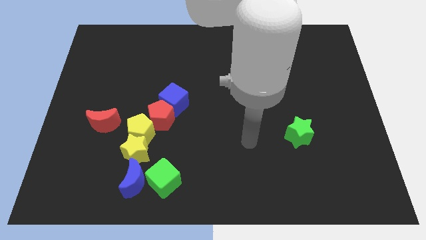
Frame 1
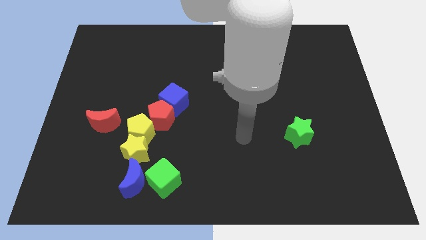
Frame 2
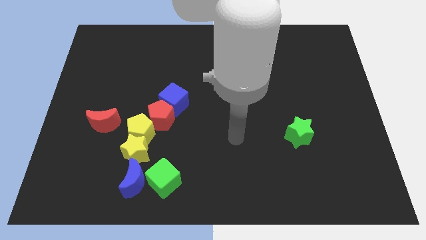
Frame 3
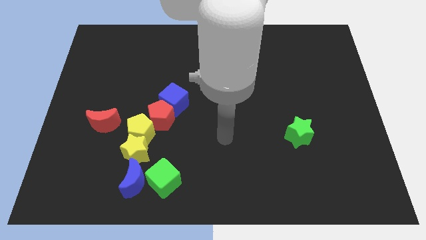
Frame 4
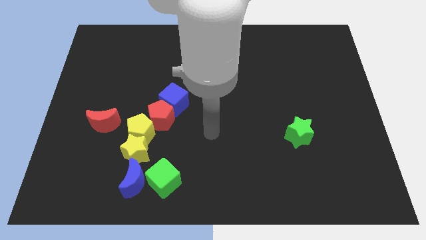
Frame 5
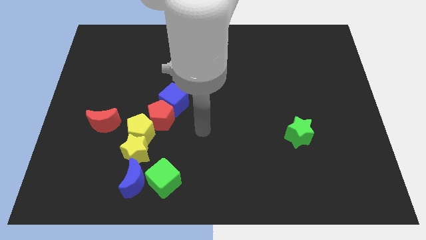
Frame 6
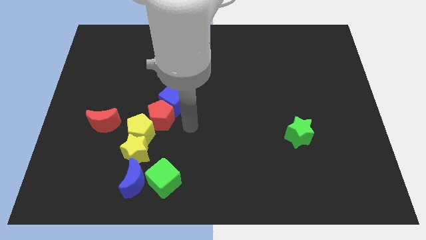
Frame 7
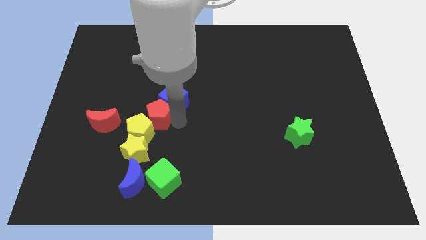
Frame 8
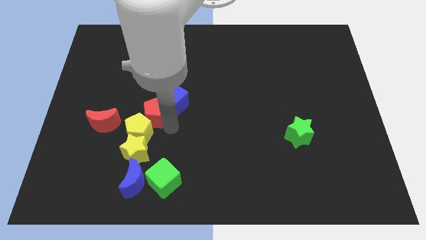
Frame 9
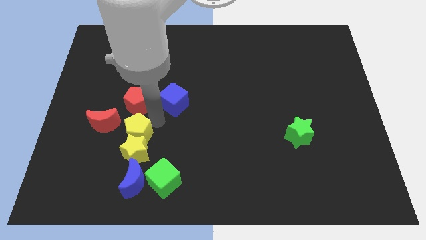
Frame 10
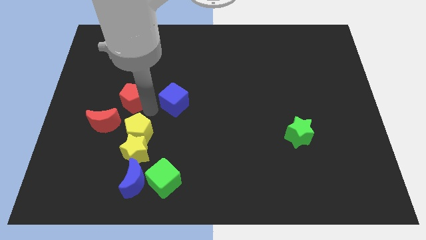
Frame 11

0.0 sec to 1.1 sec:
separate the blue cube from the red pentagon

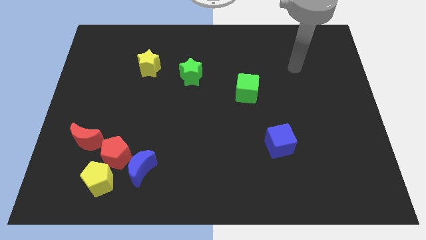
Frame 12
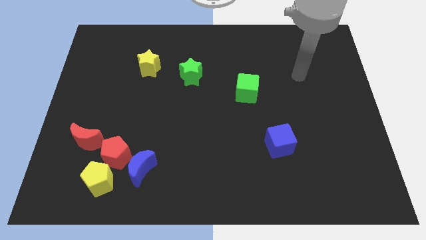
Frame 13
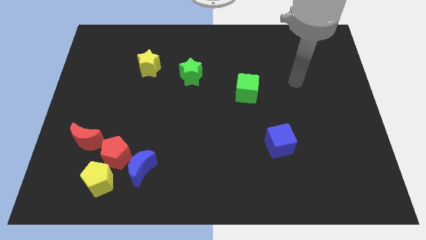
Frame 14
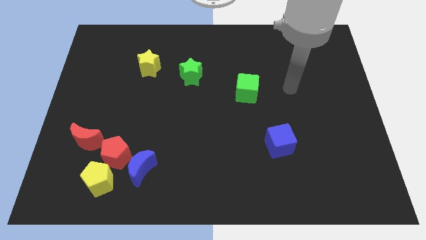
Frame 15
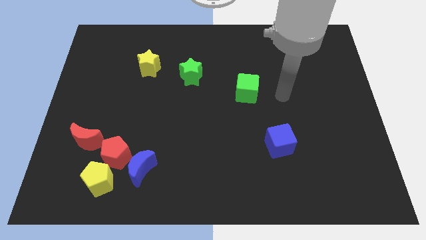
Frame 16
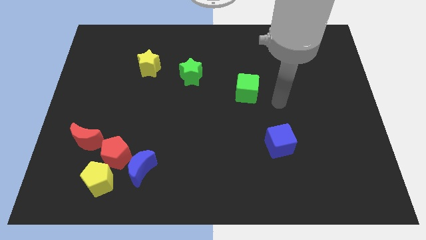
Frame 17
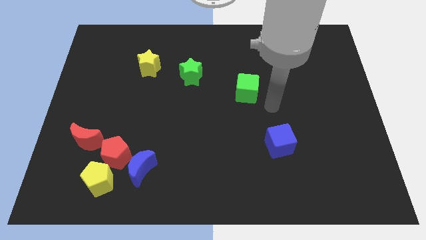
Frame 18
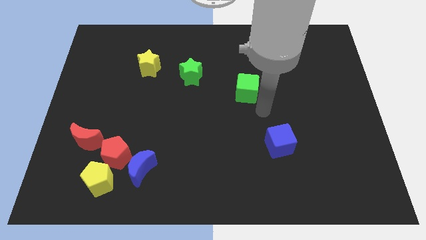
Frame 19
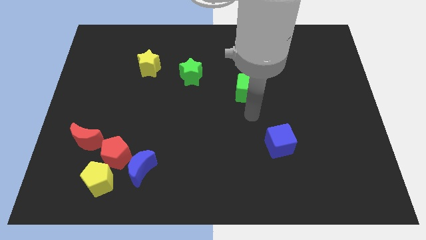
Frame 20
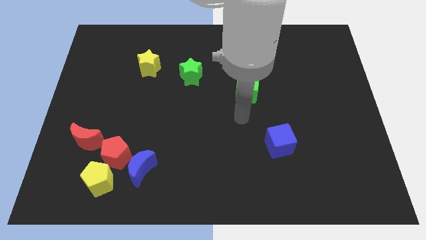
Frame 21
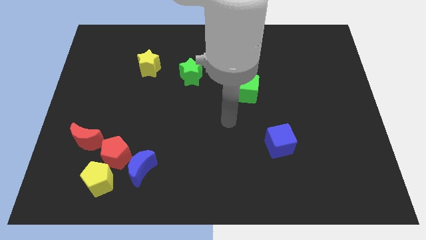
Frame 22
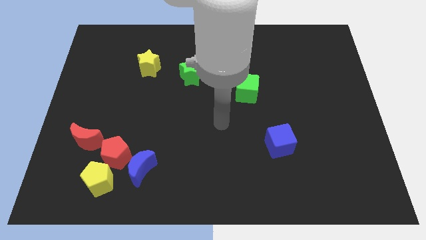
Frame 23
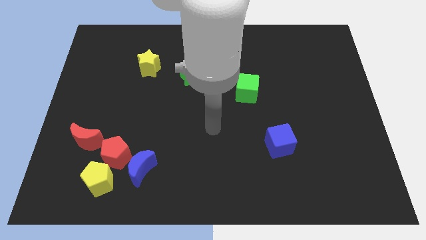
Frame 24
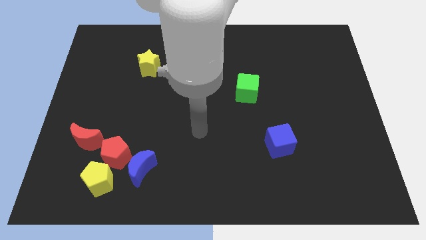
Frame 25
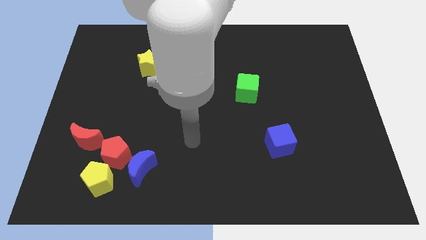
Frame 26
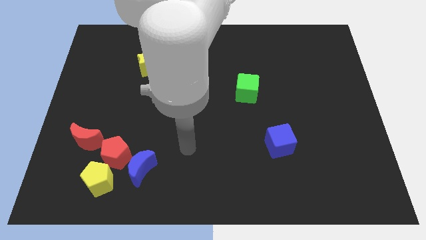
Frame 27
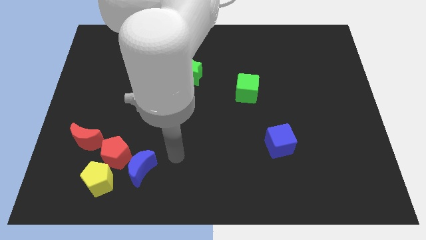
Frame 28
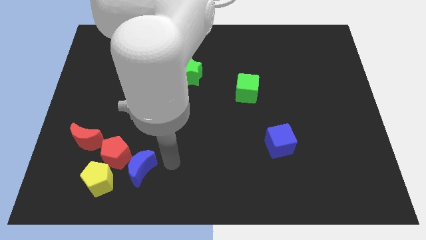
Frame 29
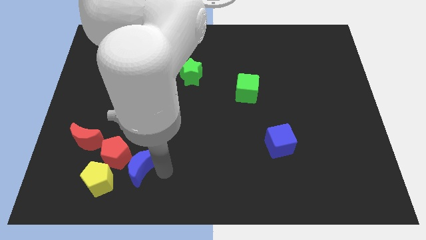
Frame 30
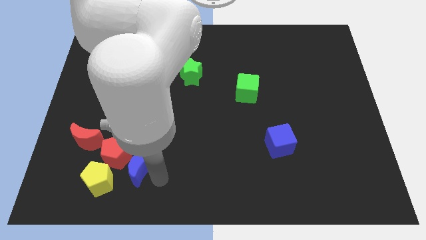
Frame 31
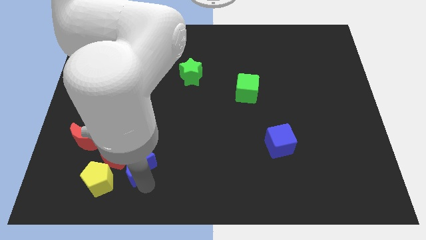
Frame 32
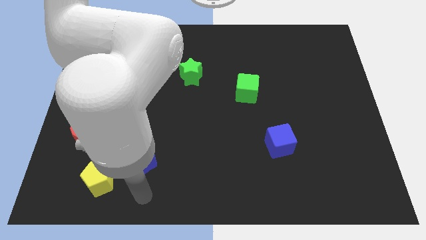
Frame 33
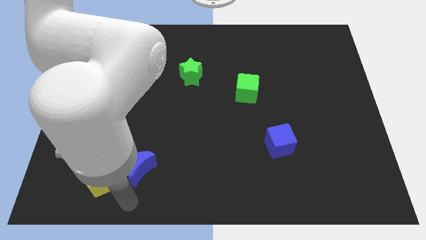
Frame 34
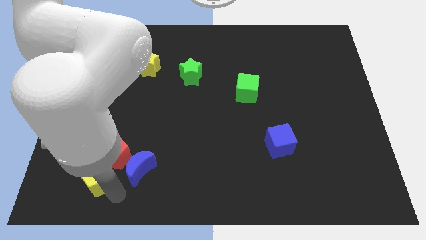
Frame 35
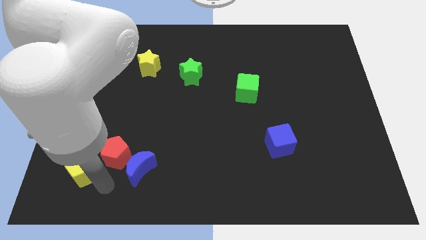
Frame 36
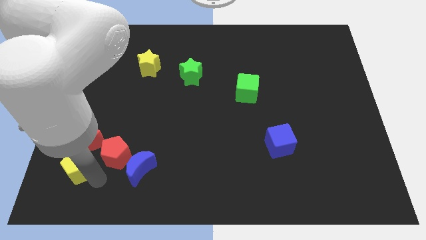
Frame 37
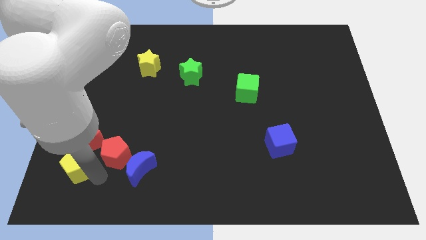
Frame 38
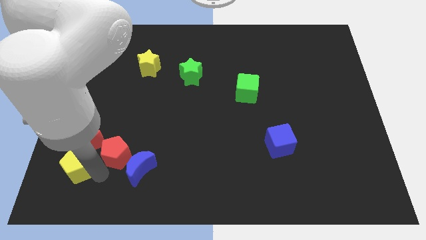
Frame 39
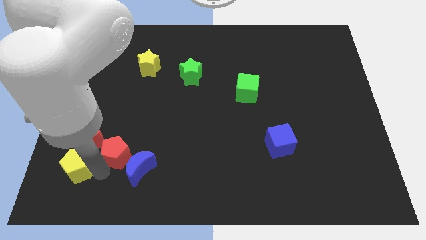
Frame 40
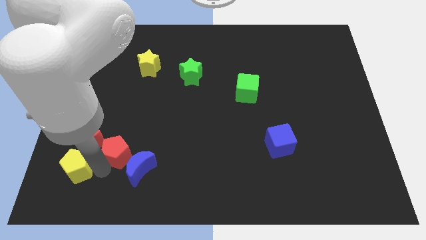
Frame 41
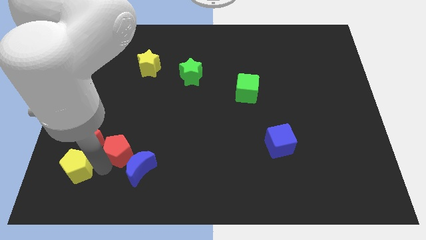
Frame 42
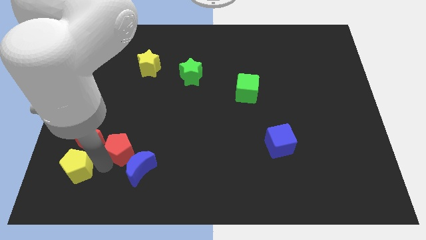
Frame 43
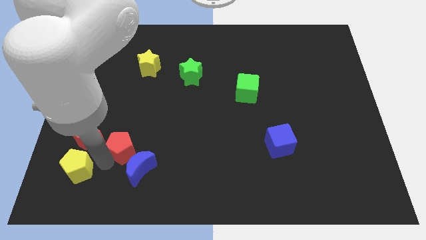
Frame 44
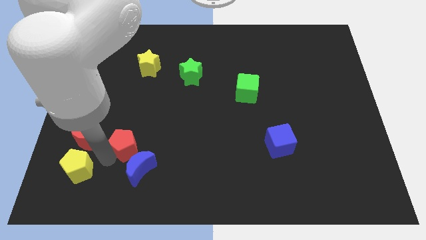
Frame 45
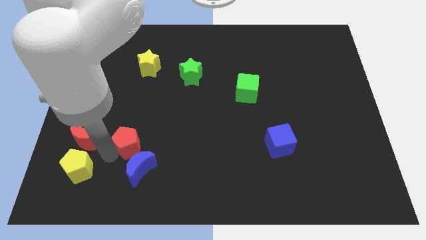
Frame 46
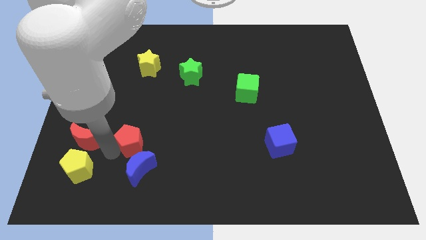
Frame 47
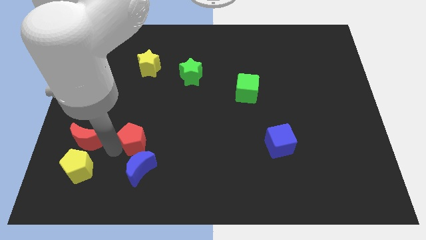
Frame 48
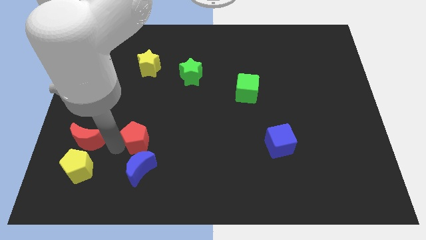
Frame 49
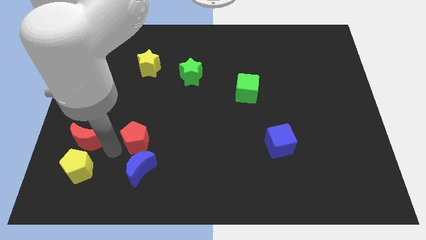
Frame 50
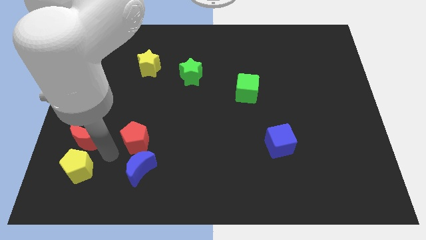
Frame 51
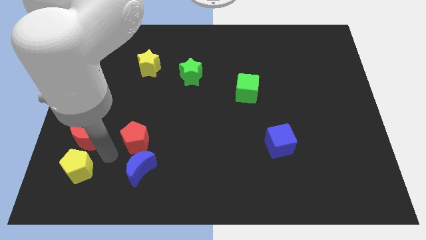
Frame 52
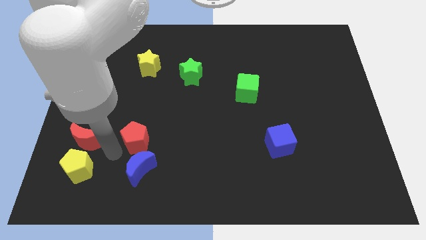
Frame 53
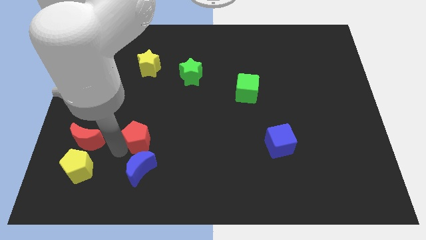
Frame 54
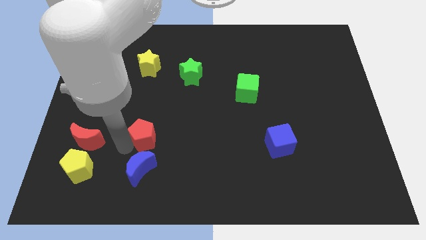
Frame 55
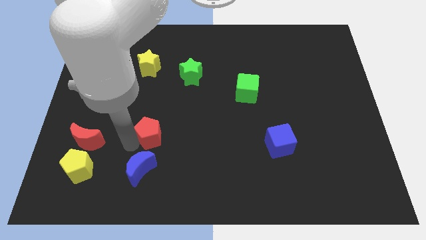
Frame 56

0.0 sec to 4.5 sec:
separate the red pentagon from the group

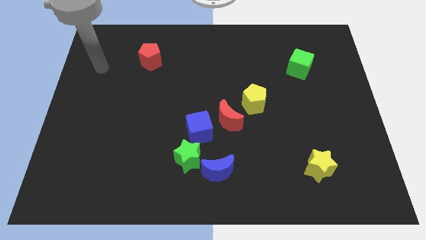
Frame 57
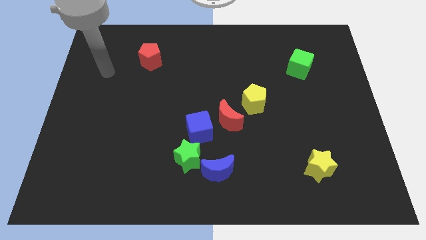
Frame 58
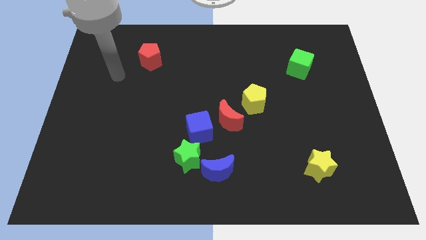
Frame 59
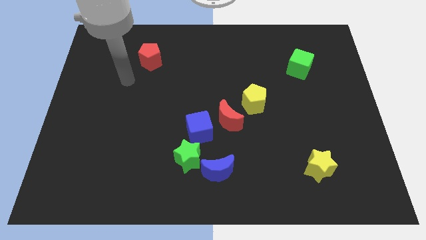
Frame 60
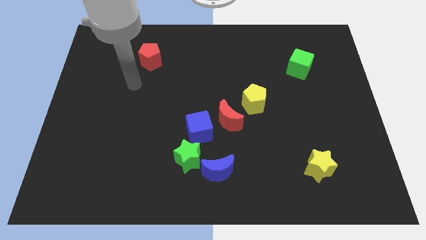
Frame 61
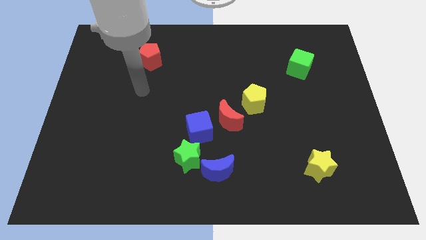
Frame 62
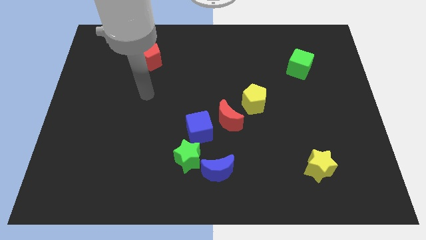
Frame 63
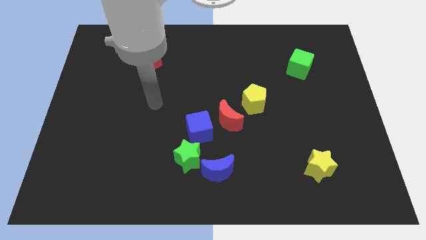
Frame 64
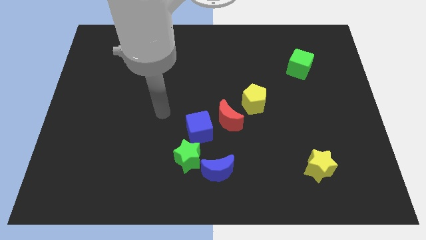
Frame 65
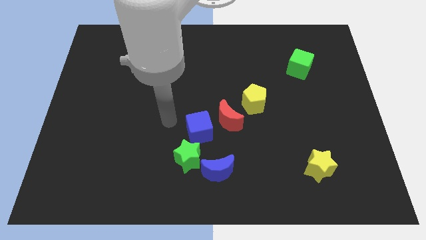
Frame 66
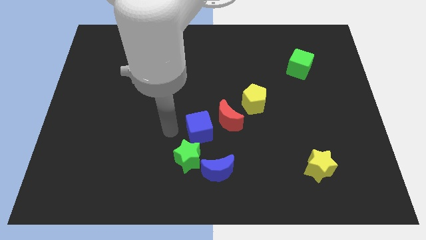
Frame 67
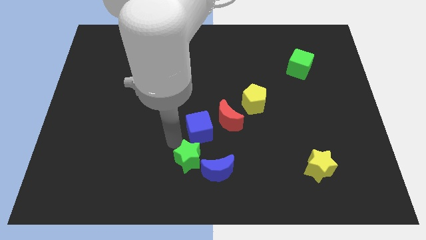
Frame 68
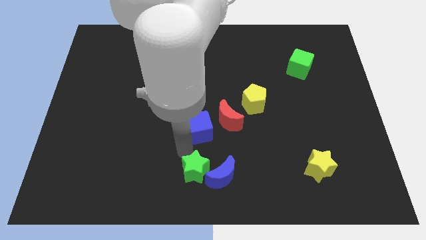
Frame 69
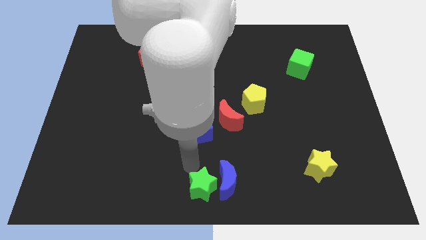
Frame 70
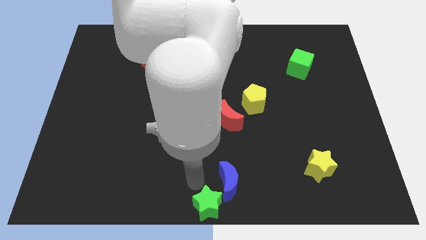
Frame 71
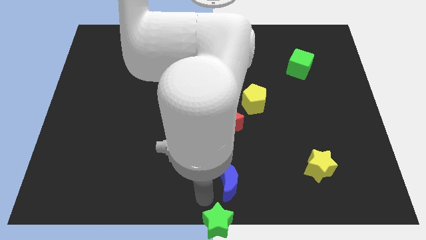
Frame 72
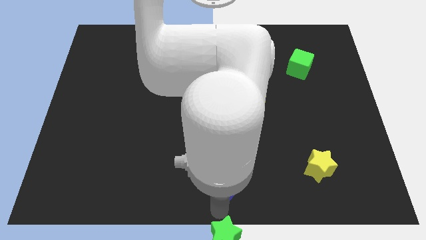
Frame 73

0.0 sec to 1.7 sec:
separate the blue moon from the green star

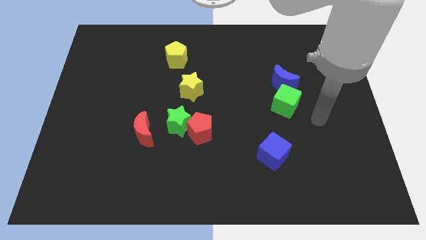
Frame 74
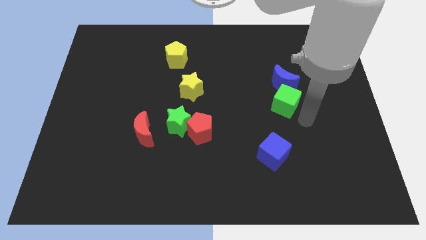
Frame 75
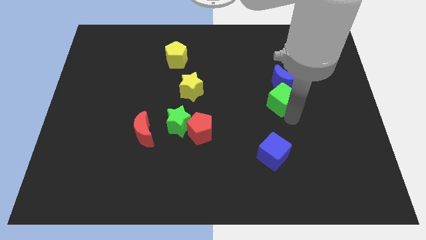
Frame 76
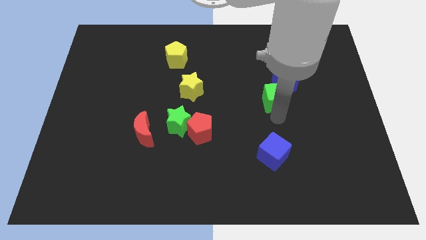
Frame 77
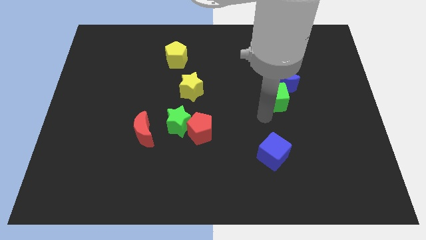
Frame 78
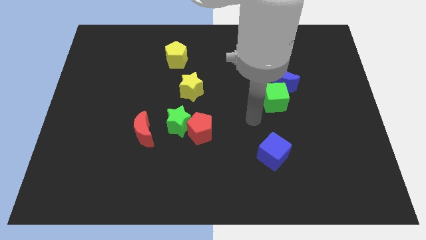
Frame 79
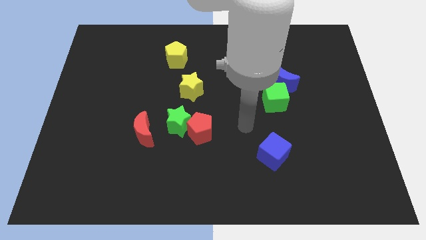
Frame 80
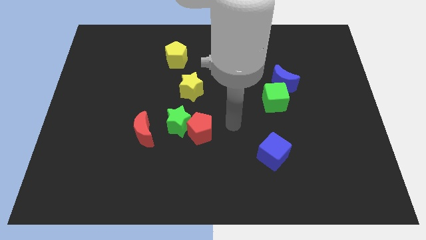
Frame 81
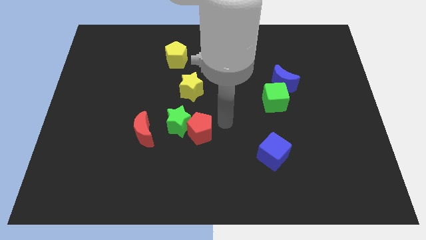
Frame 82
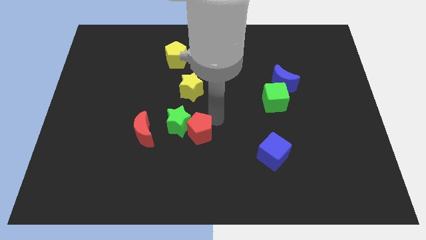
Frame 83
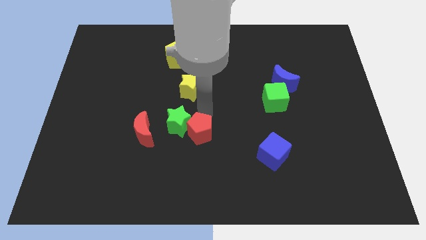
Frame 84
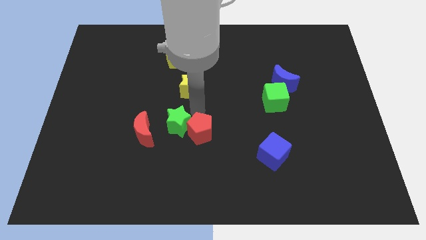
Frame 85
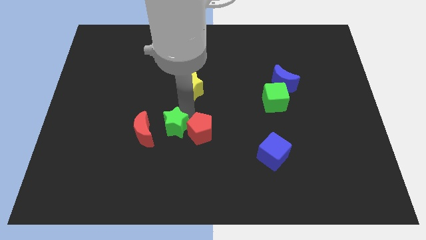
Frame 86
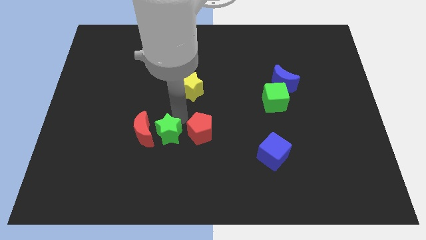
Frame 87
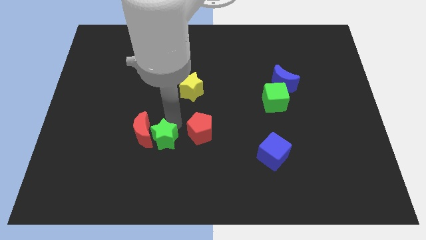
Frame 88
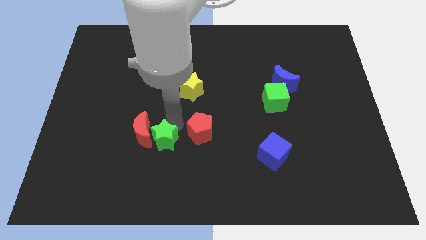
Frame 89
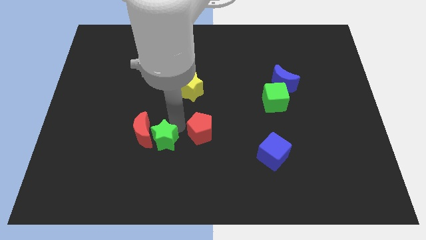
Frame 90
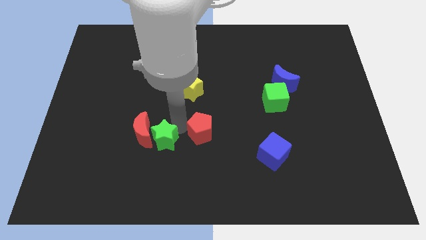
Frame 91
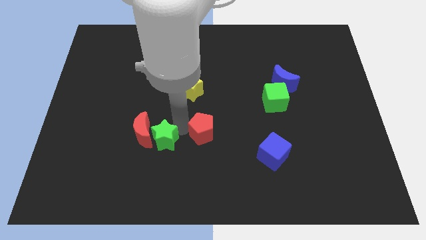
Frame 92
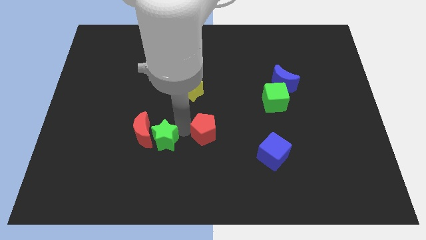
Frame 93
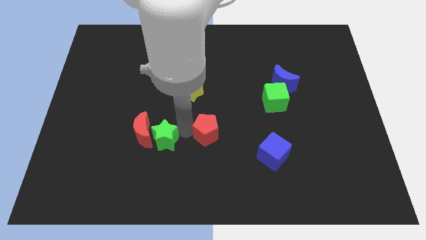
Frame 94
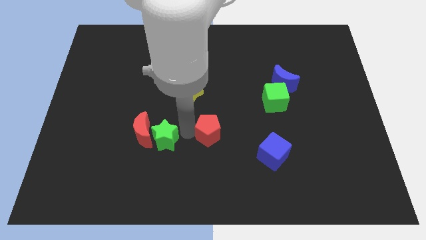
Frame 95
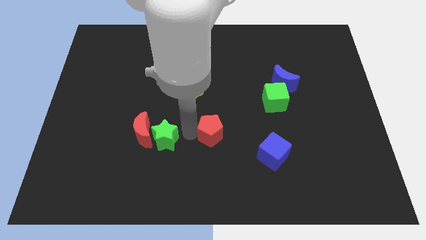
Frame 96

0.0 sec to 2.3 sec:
pull the red pentagon apart from the green star

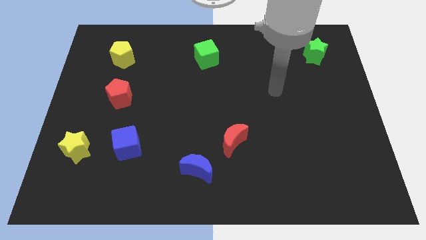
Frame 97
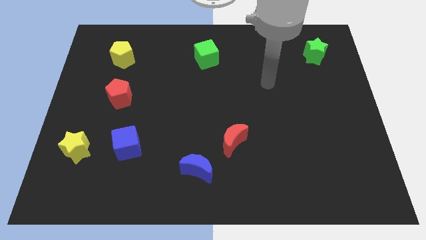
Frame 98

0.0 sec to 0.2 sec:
move the red moon away from the blue moon
